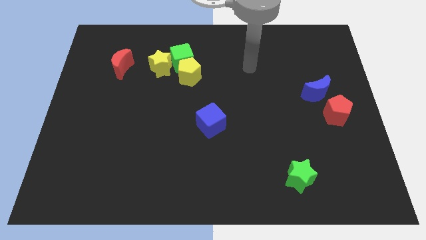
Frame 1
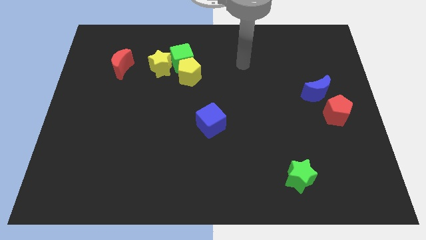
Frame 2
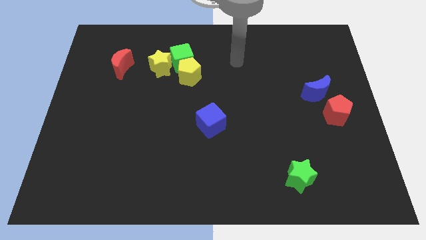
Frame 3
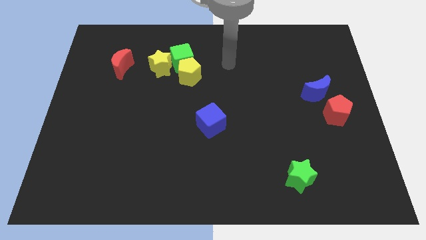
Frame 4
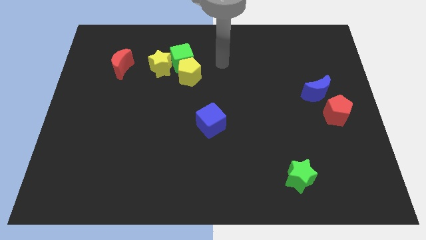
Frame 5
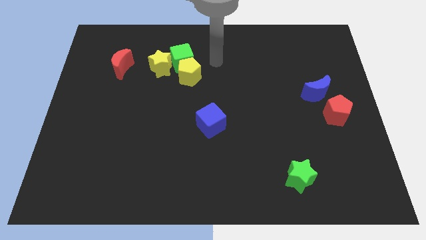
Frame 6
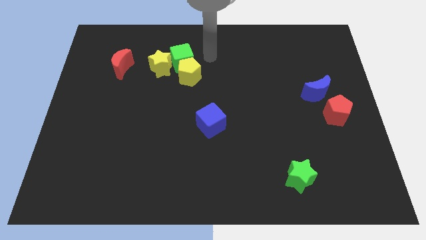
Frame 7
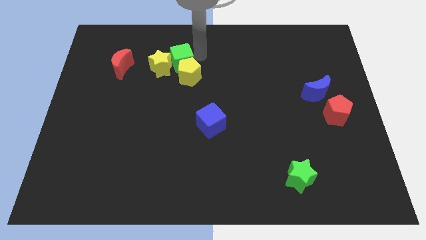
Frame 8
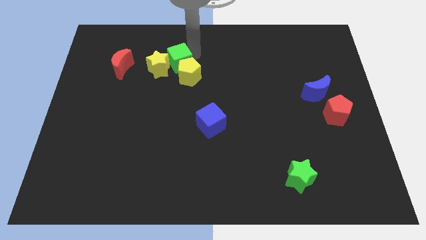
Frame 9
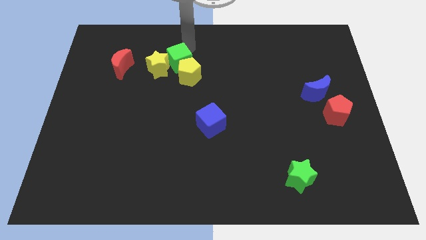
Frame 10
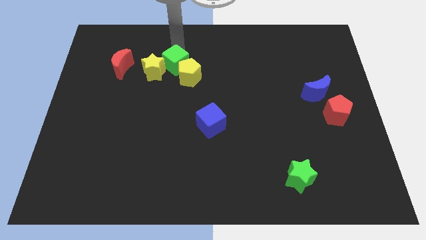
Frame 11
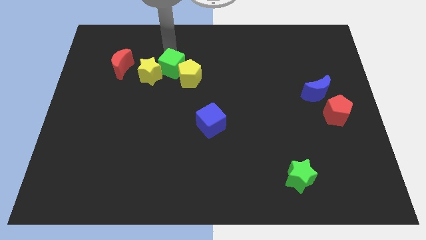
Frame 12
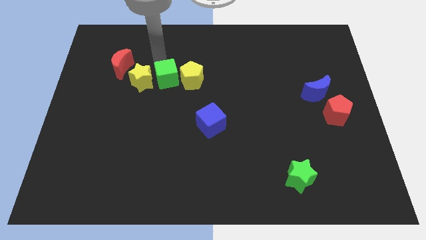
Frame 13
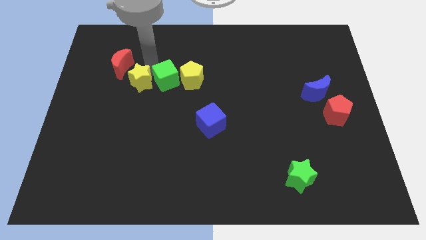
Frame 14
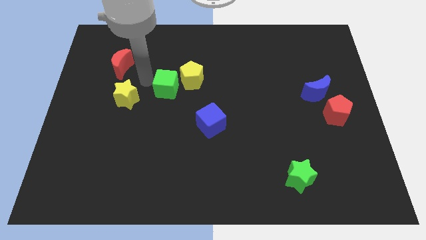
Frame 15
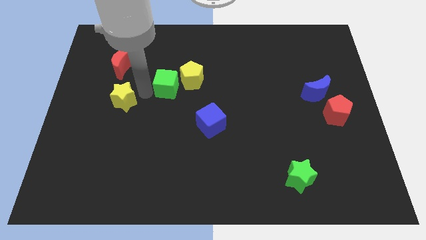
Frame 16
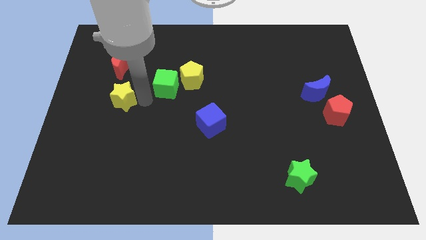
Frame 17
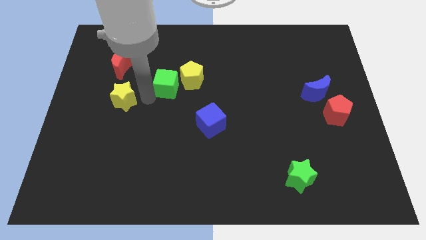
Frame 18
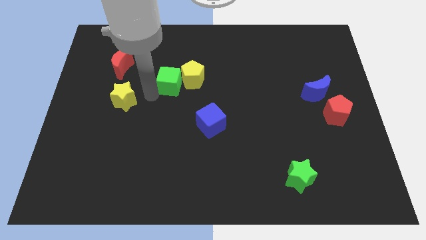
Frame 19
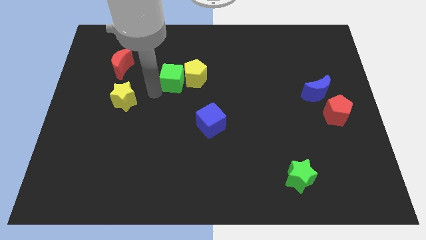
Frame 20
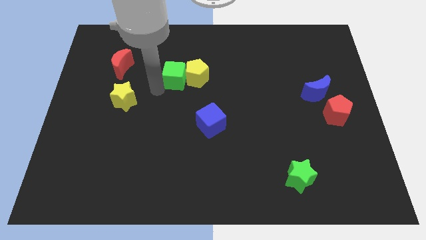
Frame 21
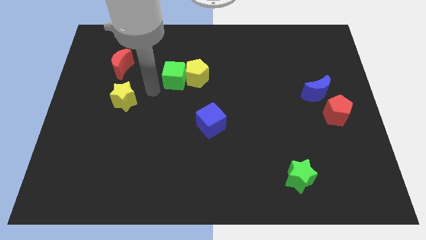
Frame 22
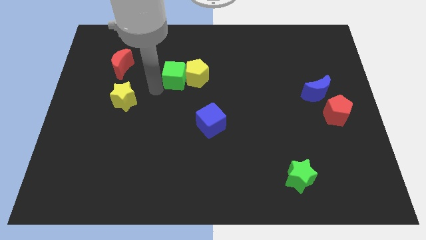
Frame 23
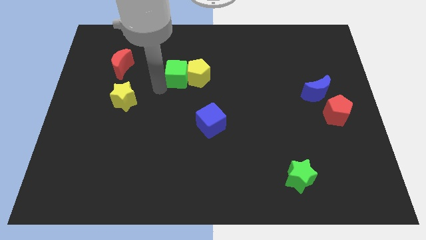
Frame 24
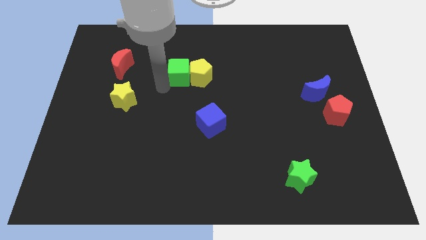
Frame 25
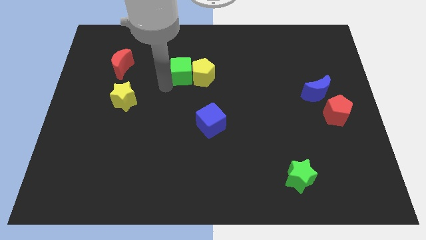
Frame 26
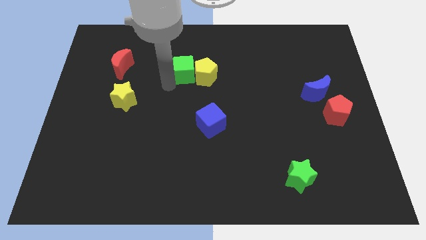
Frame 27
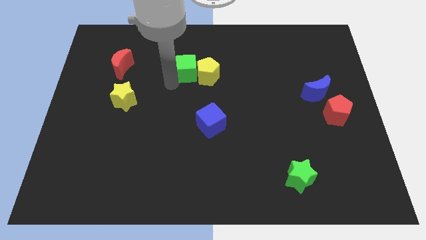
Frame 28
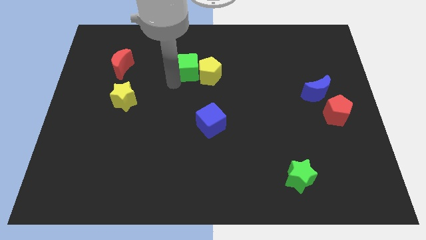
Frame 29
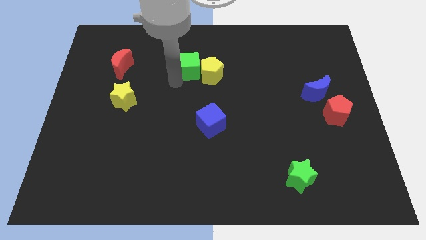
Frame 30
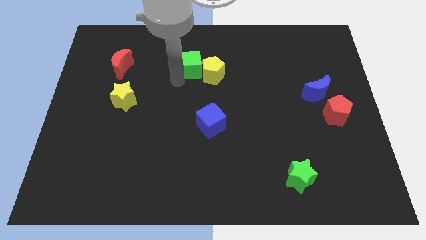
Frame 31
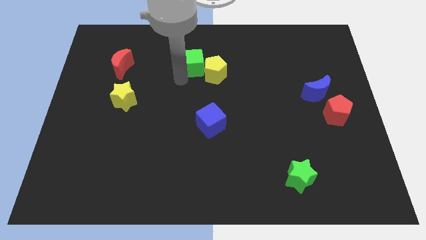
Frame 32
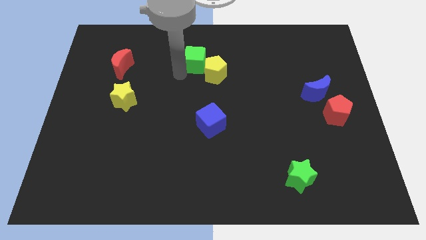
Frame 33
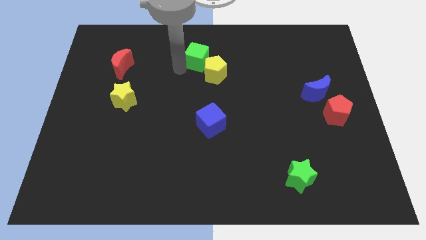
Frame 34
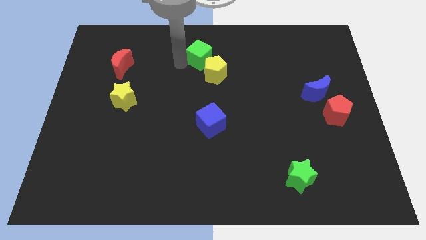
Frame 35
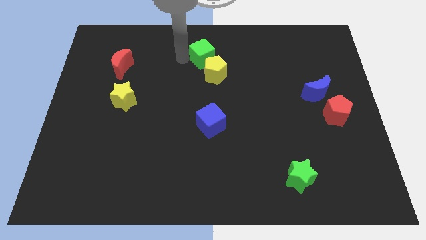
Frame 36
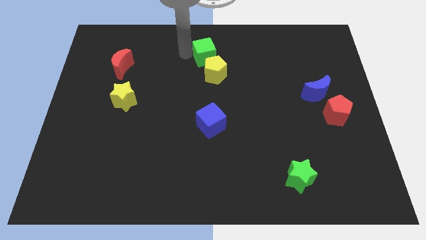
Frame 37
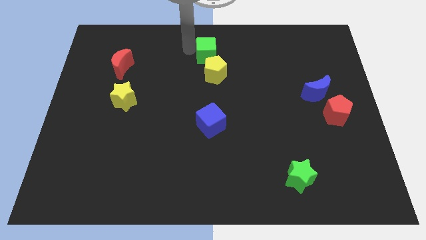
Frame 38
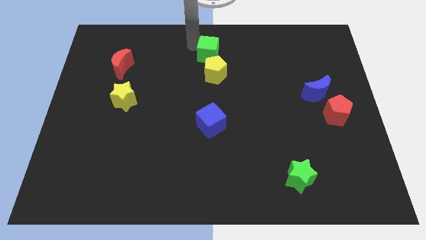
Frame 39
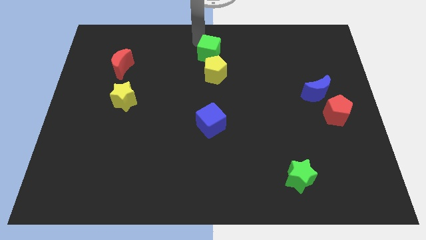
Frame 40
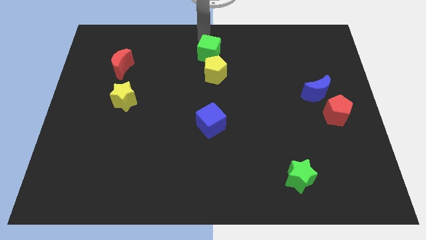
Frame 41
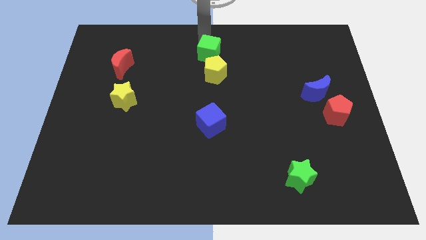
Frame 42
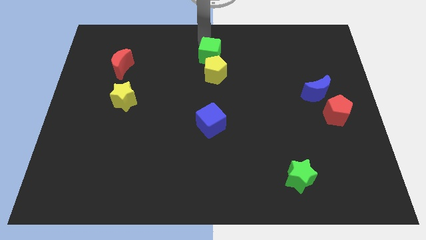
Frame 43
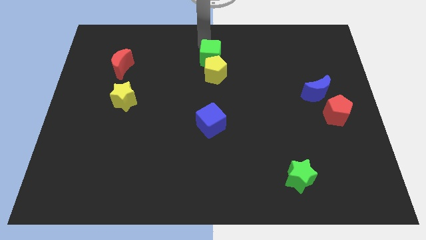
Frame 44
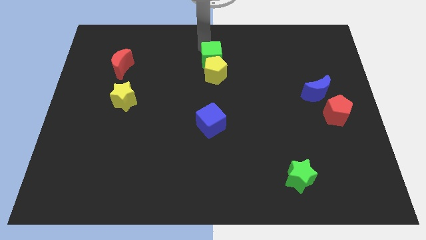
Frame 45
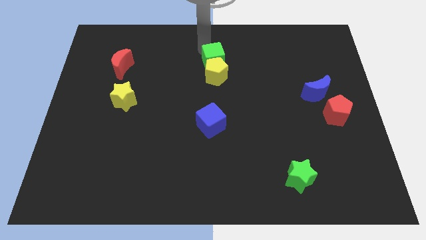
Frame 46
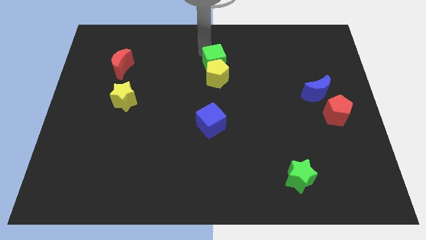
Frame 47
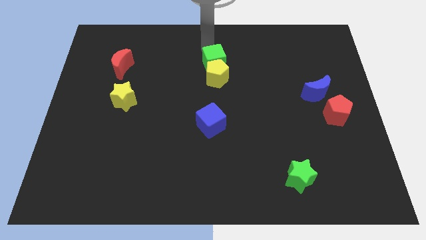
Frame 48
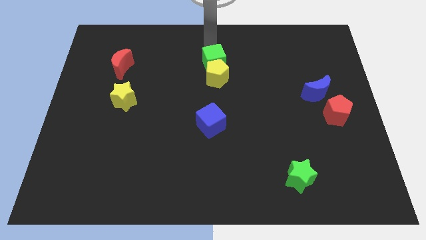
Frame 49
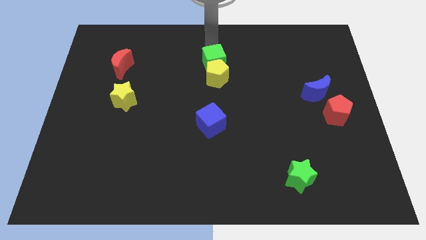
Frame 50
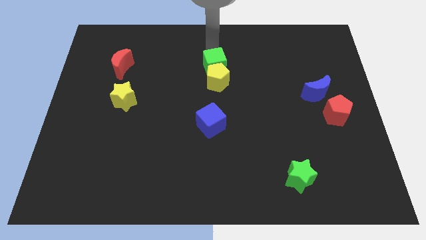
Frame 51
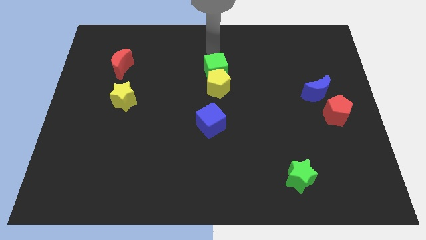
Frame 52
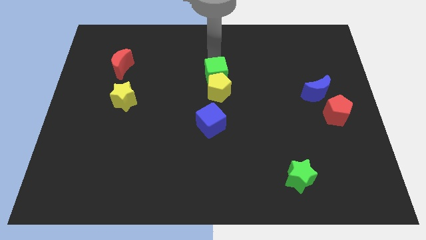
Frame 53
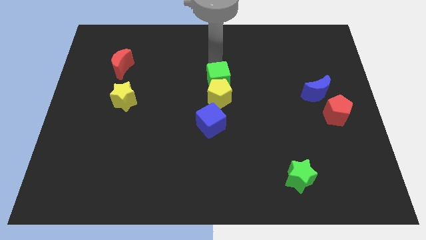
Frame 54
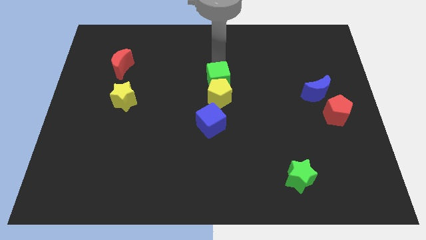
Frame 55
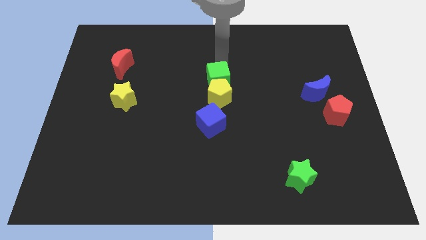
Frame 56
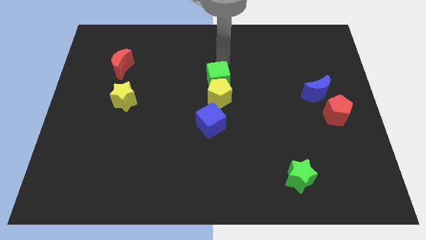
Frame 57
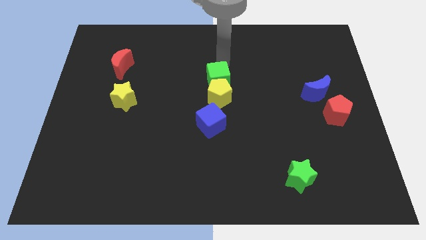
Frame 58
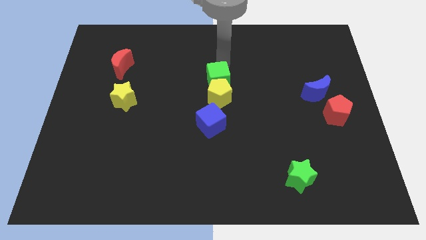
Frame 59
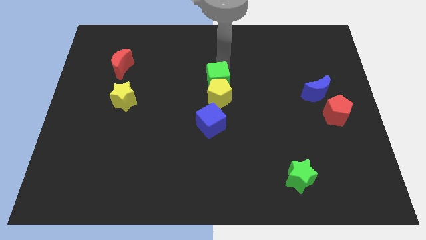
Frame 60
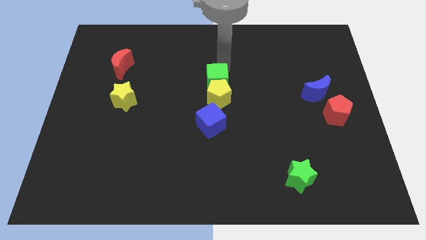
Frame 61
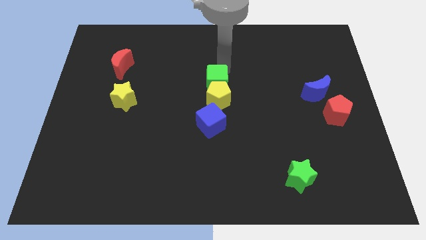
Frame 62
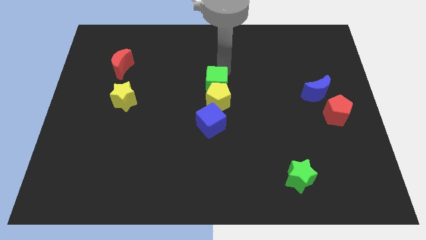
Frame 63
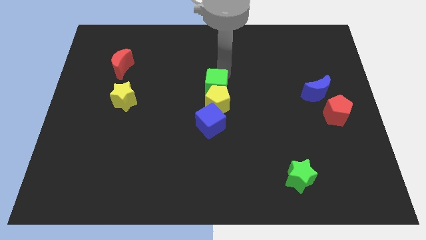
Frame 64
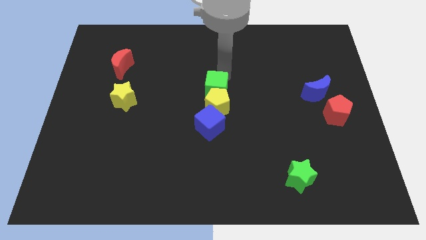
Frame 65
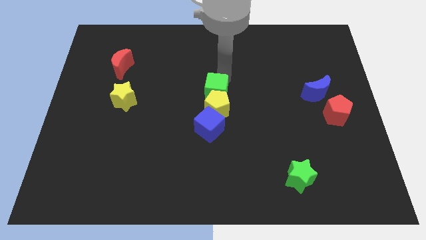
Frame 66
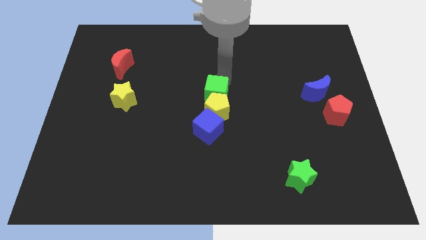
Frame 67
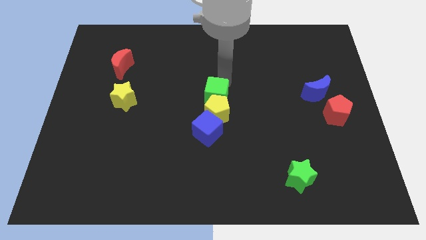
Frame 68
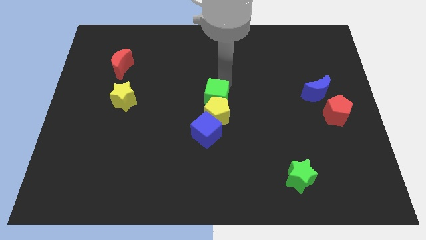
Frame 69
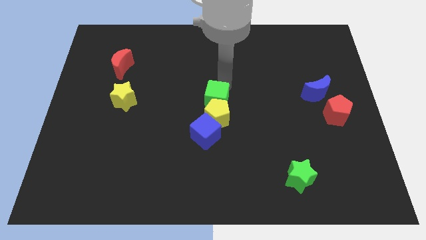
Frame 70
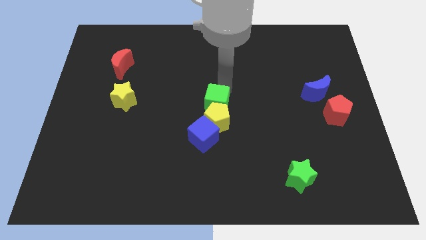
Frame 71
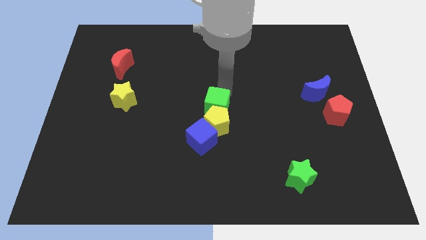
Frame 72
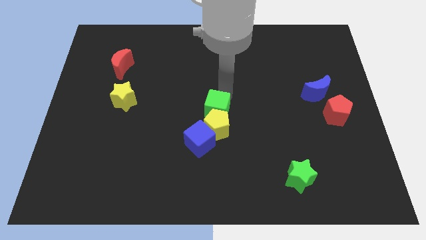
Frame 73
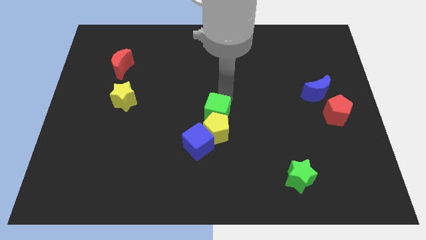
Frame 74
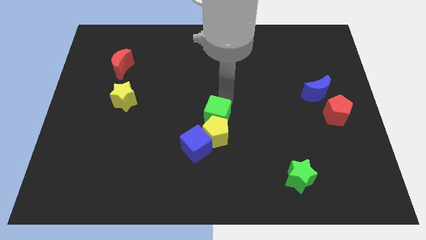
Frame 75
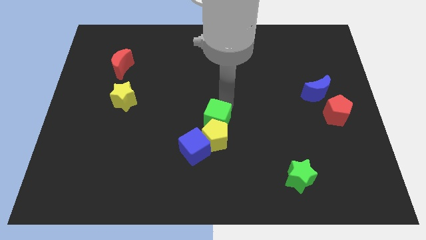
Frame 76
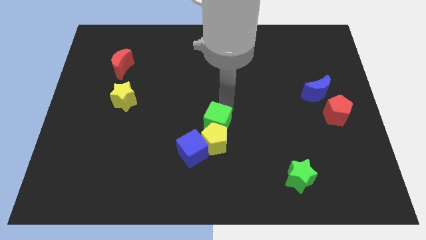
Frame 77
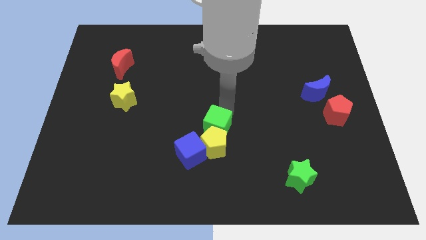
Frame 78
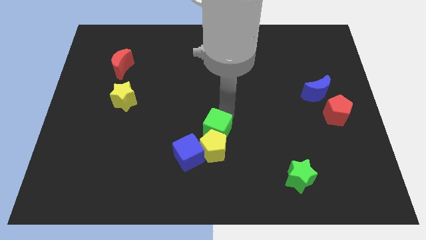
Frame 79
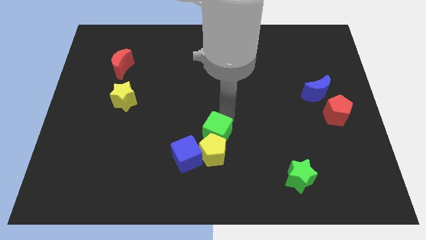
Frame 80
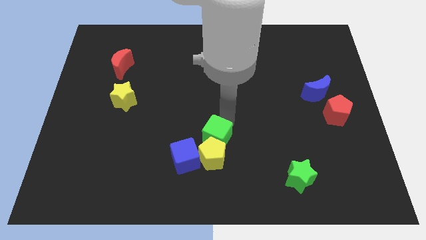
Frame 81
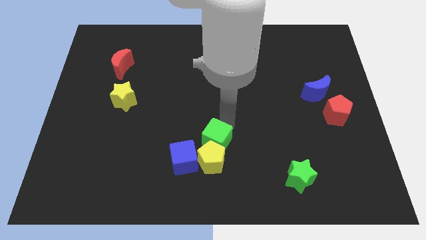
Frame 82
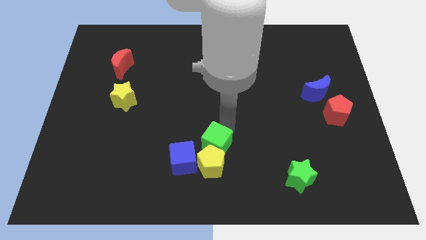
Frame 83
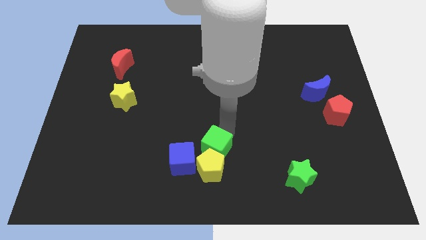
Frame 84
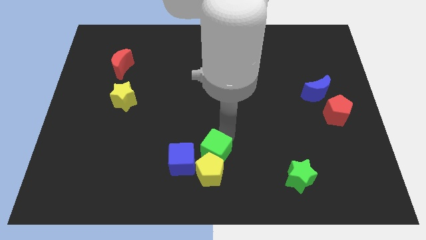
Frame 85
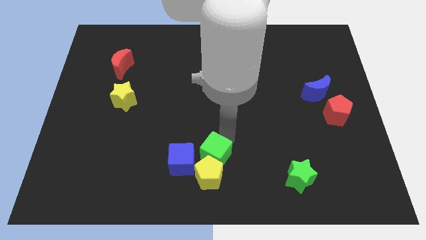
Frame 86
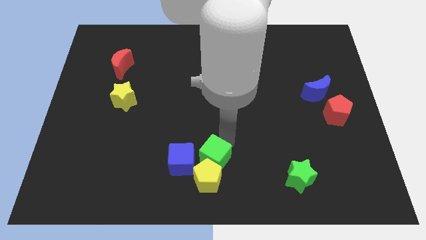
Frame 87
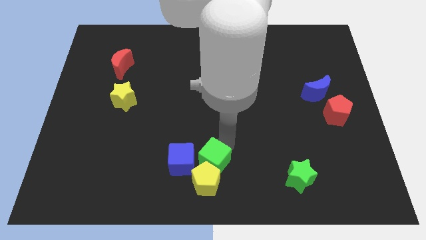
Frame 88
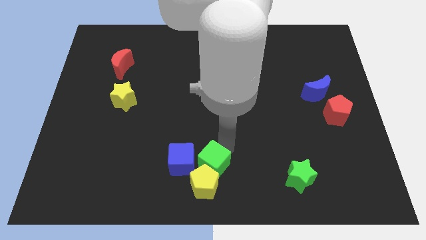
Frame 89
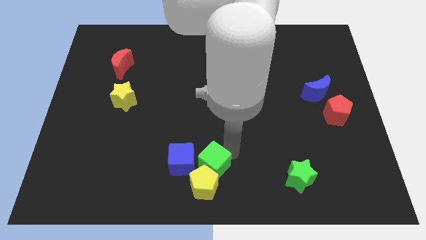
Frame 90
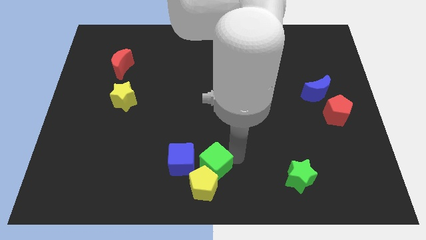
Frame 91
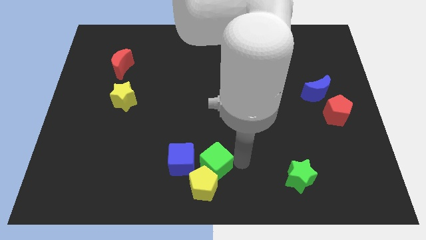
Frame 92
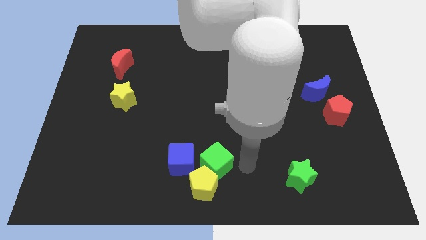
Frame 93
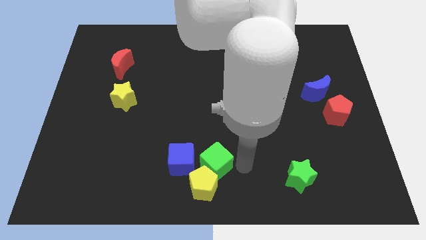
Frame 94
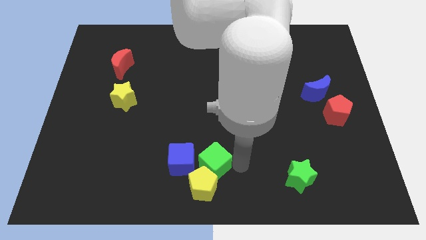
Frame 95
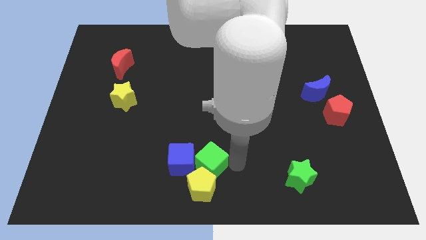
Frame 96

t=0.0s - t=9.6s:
move the green cube to the blue cube
